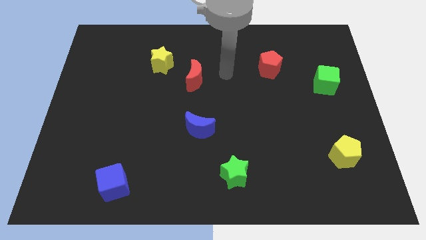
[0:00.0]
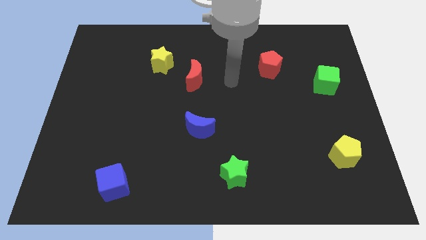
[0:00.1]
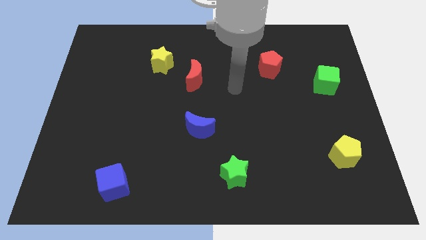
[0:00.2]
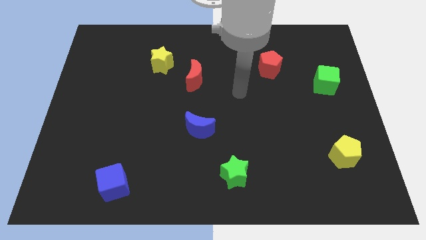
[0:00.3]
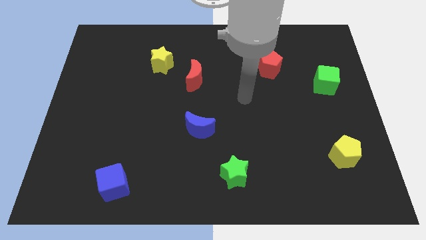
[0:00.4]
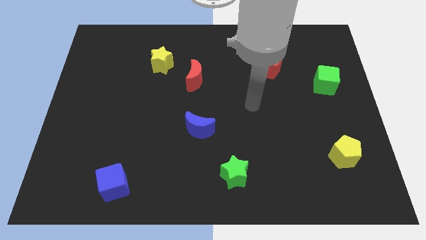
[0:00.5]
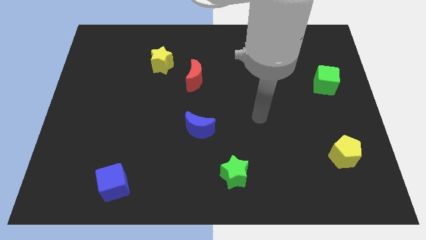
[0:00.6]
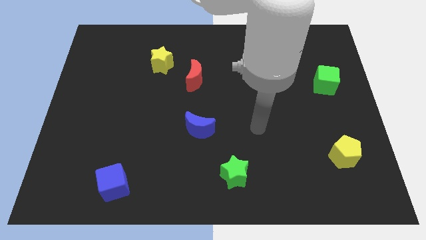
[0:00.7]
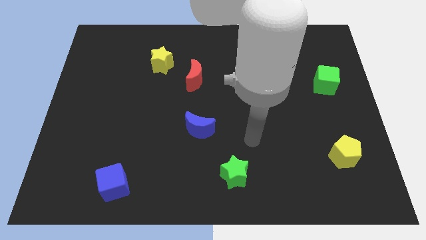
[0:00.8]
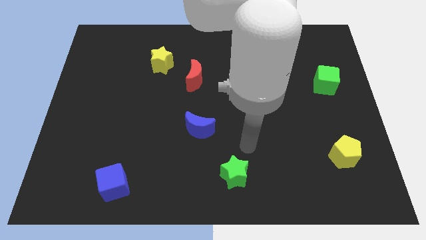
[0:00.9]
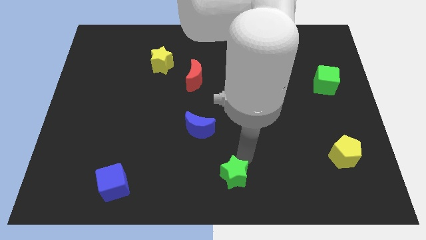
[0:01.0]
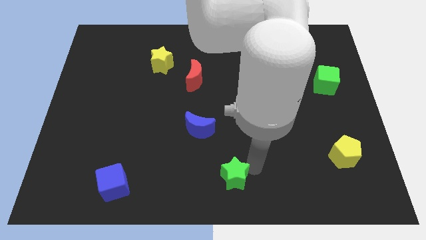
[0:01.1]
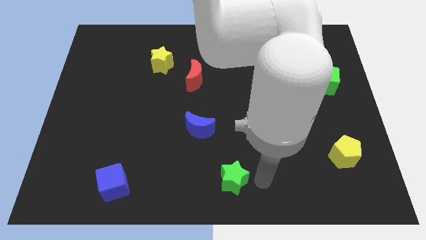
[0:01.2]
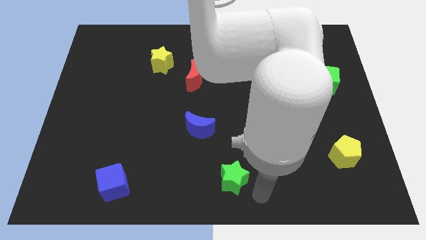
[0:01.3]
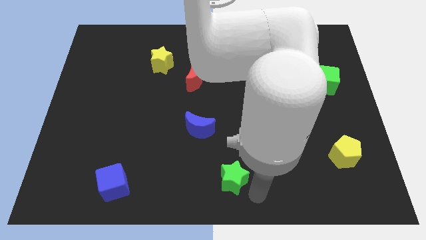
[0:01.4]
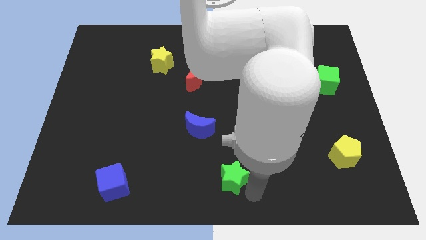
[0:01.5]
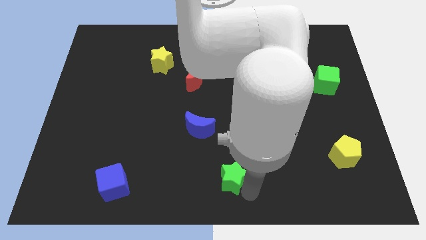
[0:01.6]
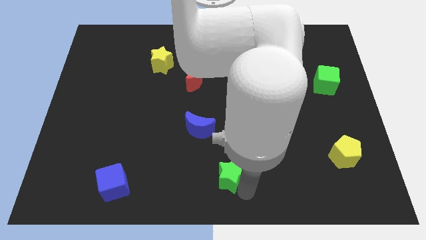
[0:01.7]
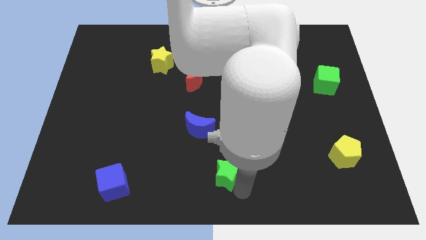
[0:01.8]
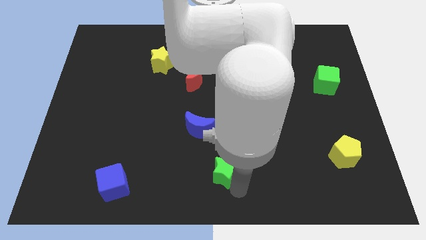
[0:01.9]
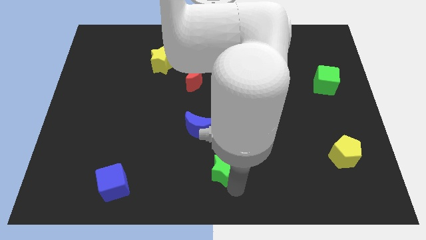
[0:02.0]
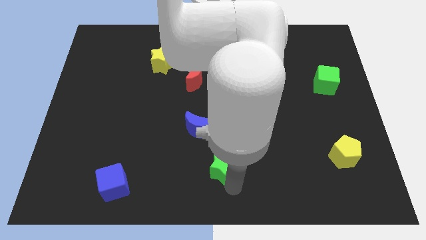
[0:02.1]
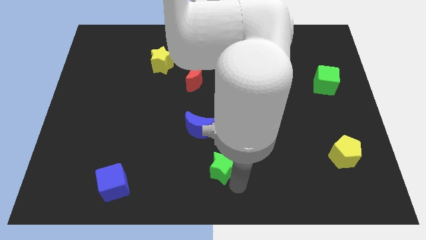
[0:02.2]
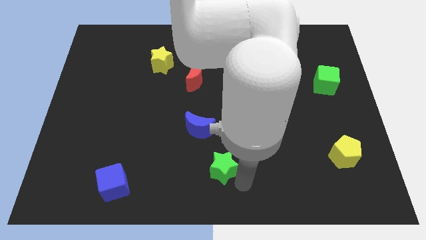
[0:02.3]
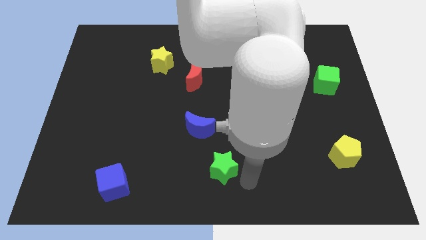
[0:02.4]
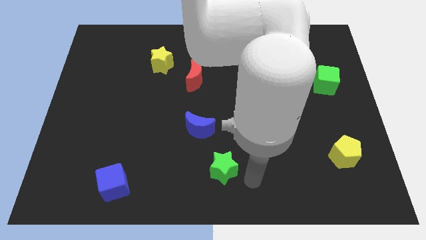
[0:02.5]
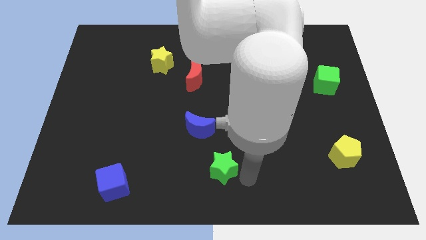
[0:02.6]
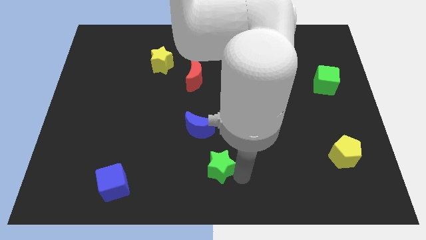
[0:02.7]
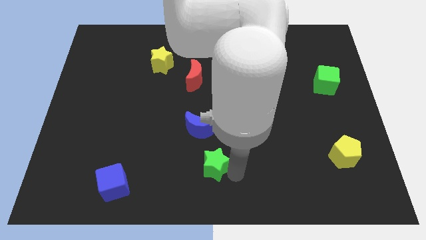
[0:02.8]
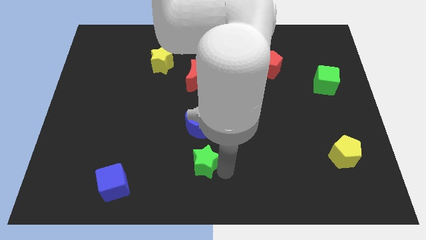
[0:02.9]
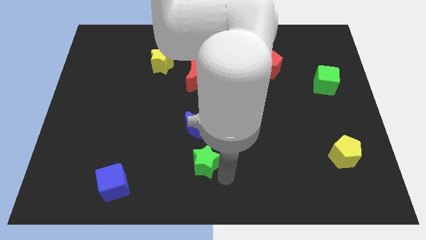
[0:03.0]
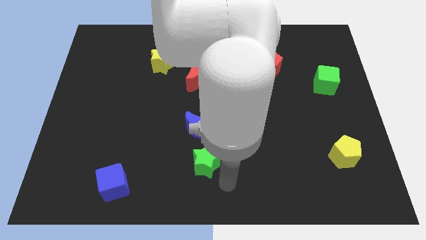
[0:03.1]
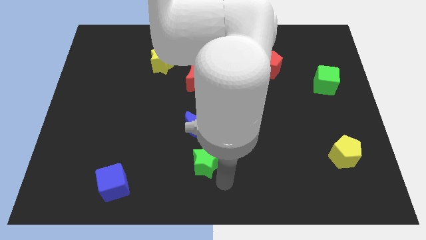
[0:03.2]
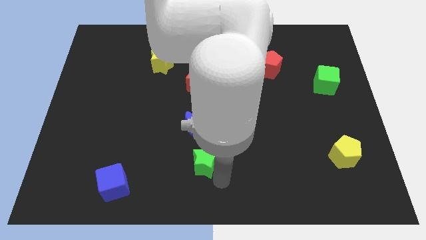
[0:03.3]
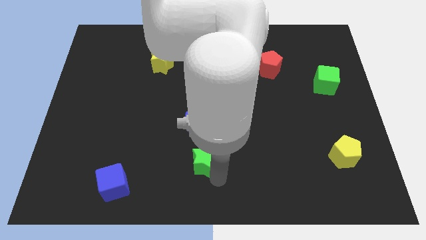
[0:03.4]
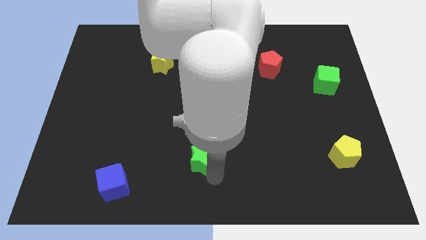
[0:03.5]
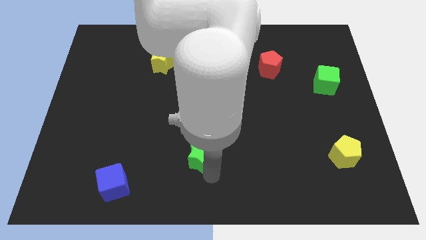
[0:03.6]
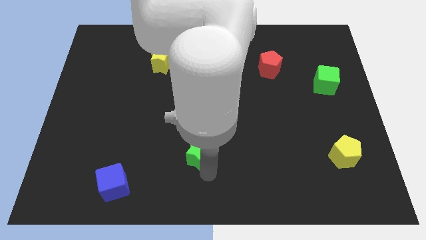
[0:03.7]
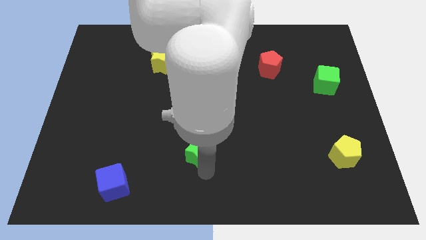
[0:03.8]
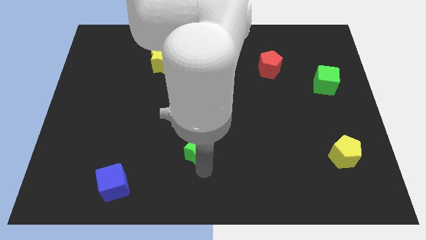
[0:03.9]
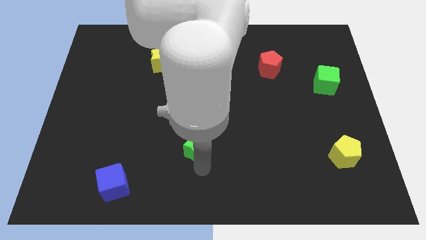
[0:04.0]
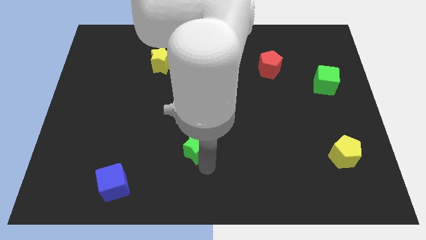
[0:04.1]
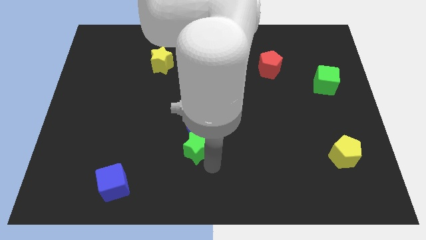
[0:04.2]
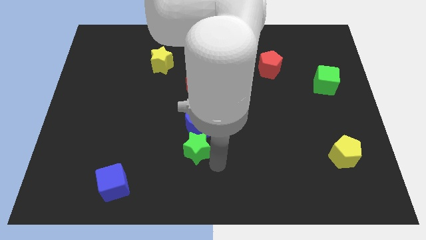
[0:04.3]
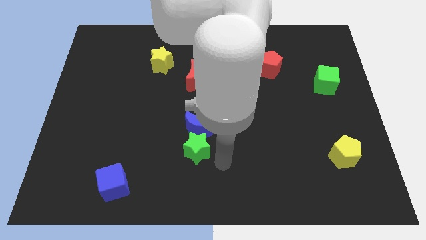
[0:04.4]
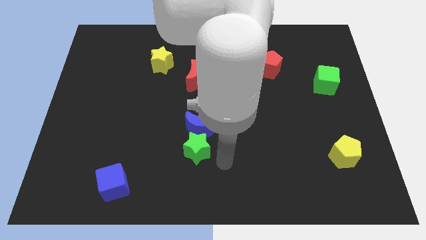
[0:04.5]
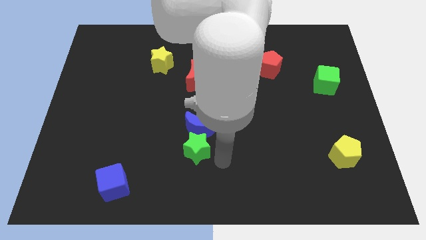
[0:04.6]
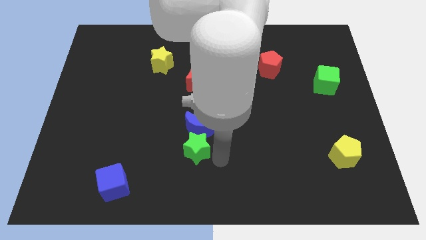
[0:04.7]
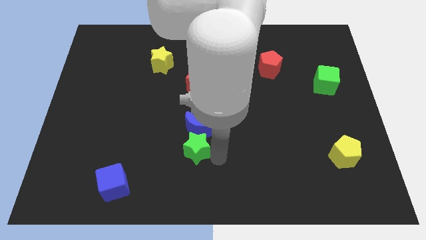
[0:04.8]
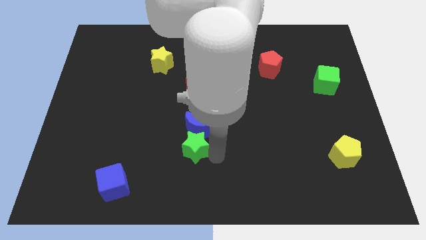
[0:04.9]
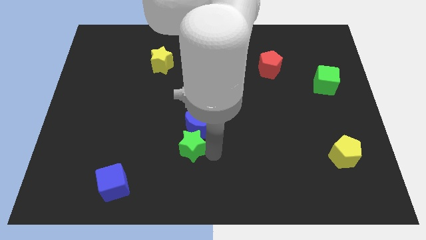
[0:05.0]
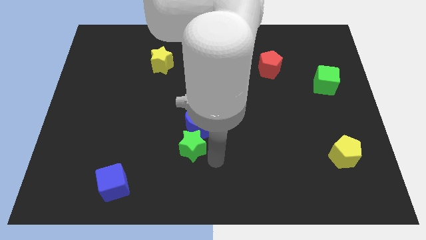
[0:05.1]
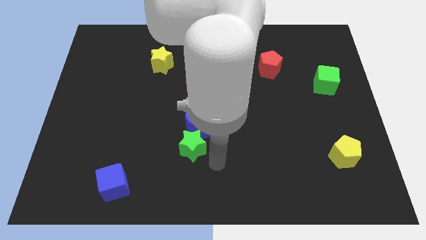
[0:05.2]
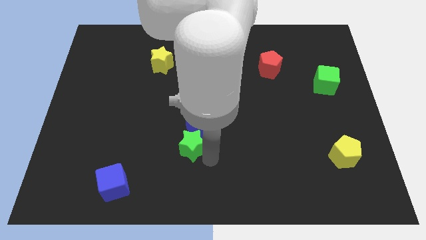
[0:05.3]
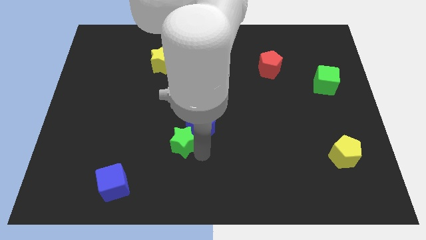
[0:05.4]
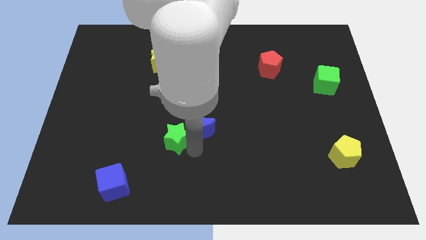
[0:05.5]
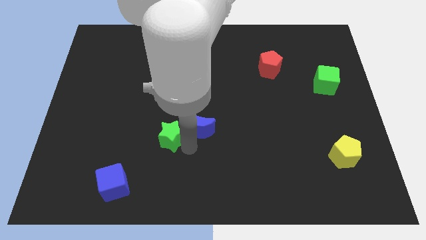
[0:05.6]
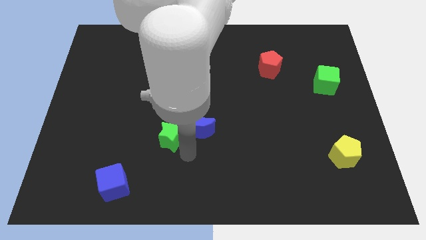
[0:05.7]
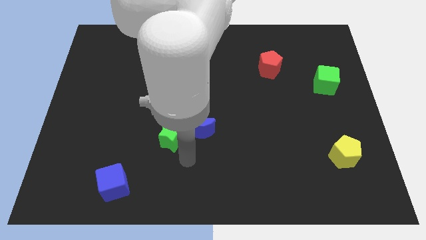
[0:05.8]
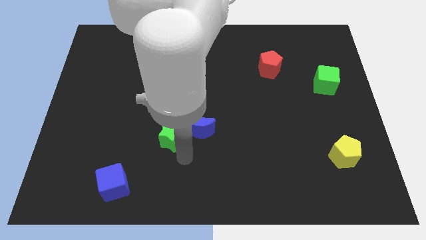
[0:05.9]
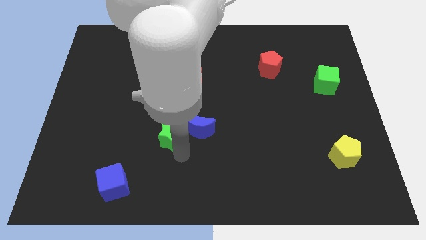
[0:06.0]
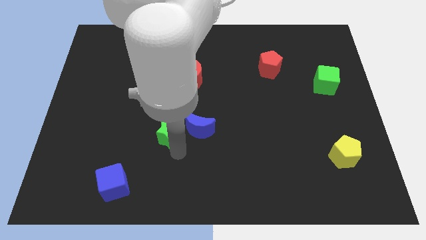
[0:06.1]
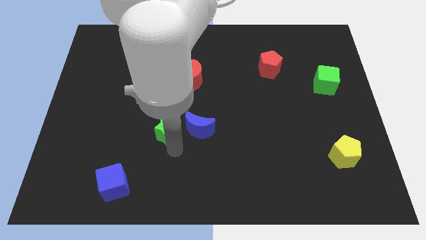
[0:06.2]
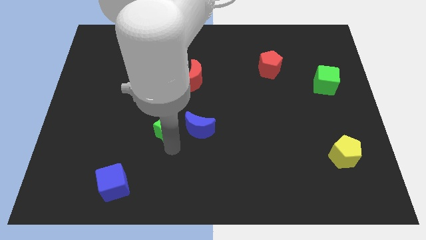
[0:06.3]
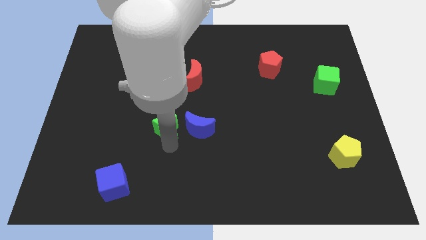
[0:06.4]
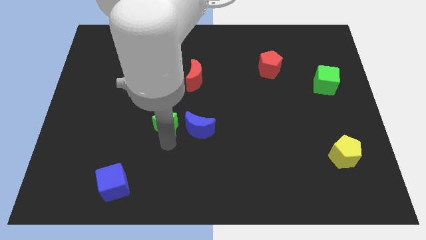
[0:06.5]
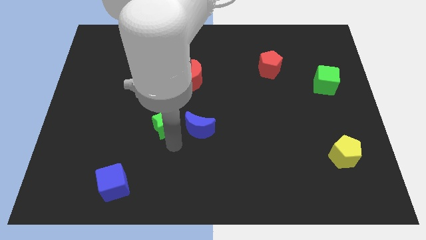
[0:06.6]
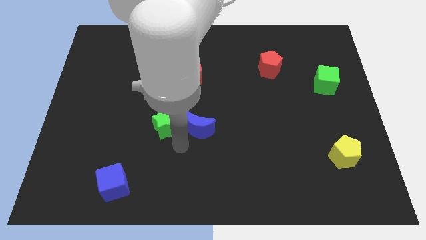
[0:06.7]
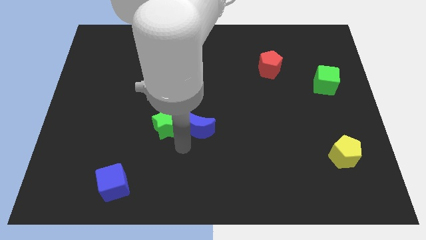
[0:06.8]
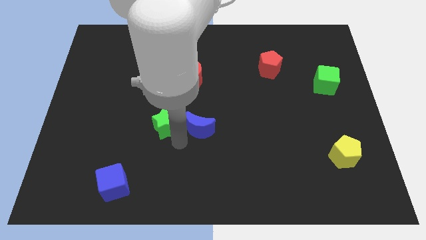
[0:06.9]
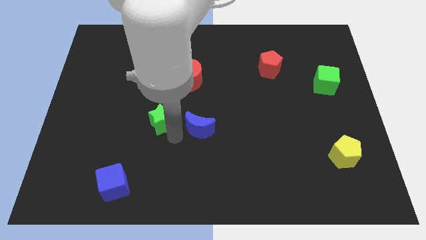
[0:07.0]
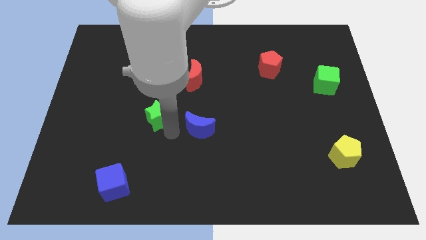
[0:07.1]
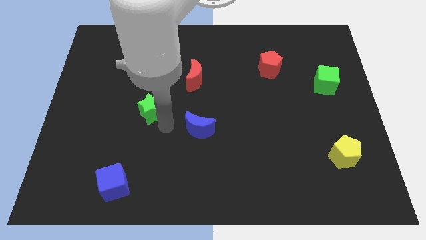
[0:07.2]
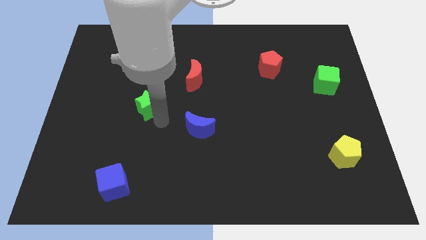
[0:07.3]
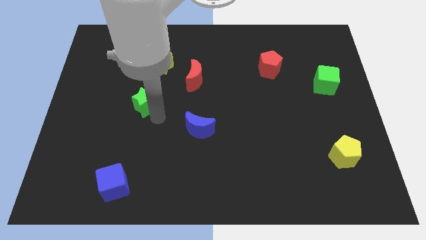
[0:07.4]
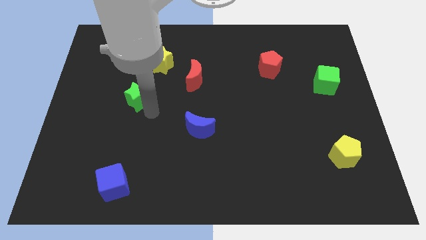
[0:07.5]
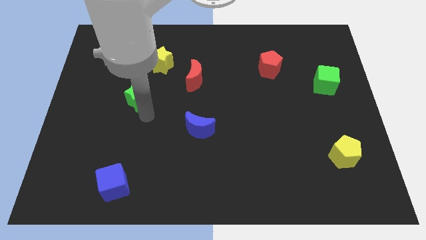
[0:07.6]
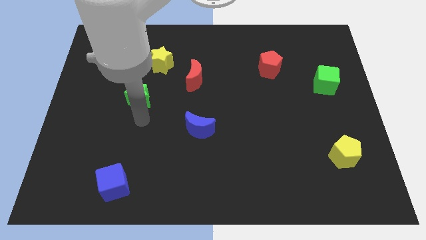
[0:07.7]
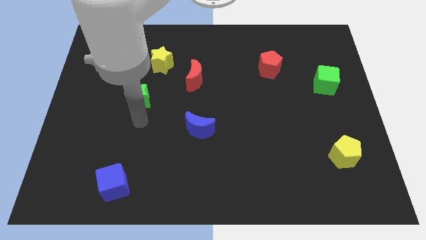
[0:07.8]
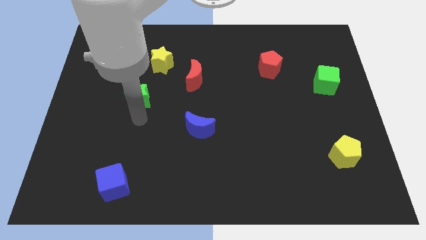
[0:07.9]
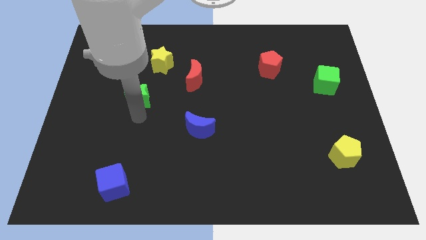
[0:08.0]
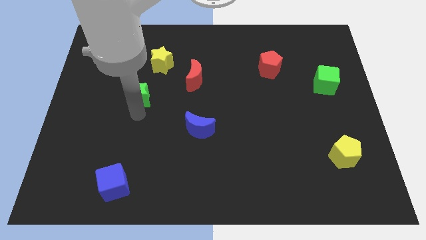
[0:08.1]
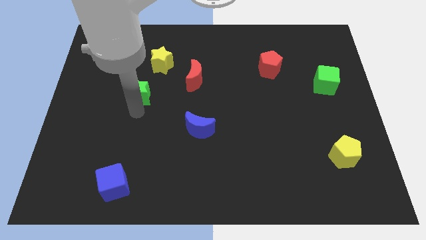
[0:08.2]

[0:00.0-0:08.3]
push the green star to the bottom left of the yellow star
